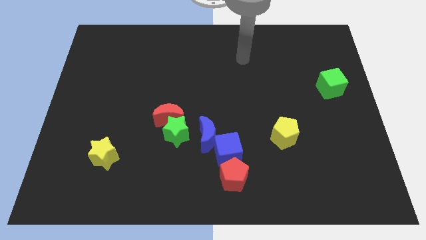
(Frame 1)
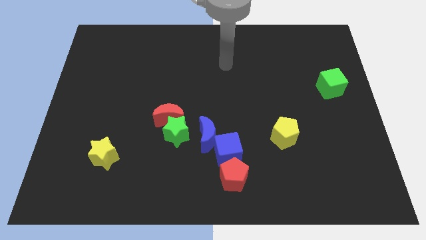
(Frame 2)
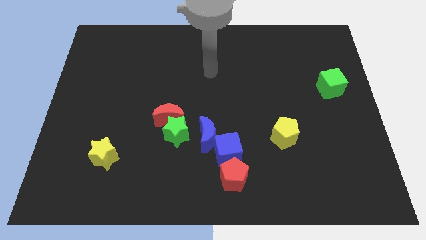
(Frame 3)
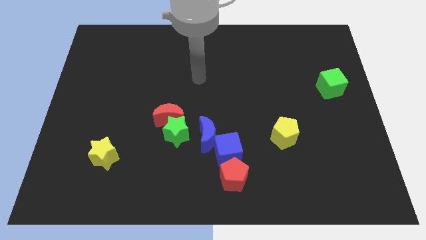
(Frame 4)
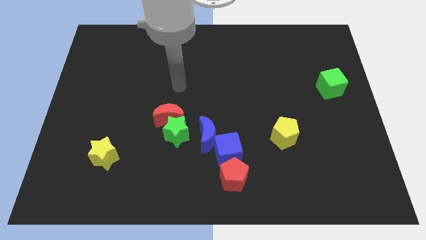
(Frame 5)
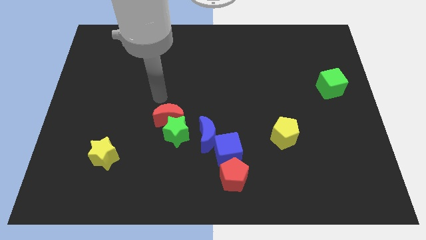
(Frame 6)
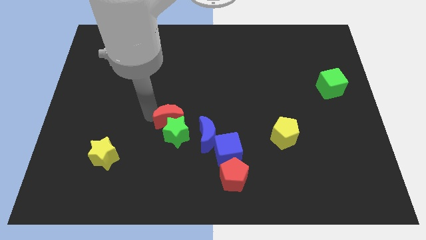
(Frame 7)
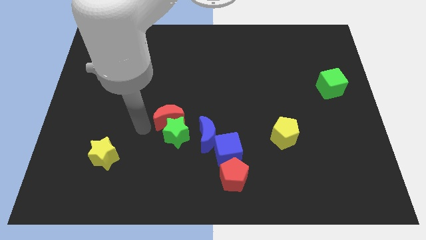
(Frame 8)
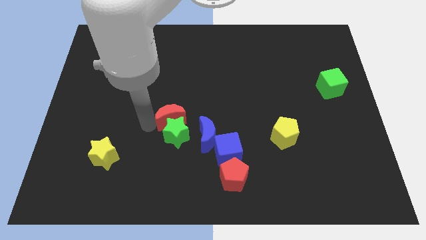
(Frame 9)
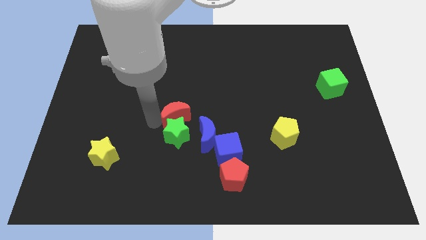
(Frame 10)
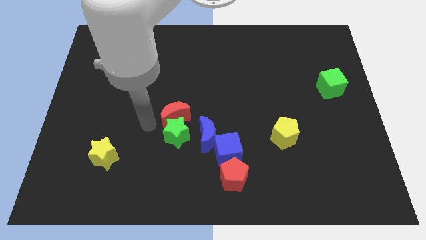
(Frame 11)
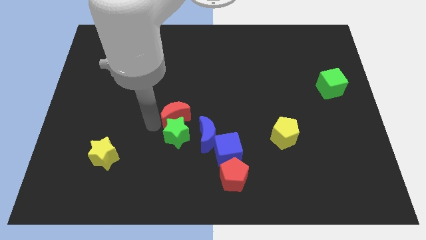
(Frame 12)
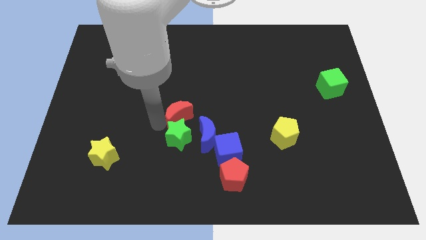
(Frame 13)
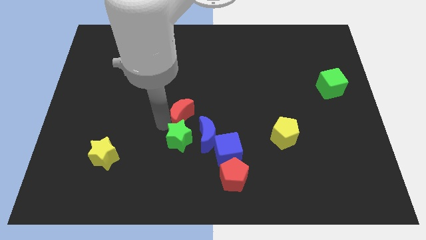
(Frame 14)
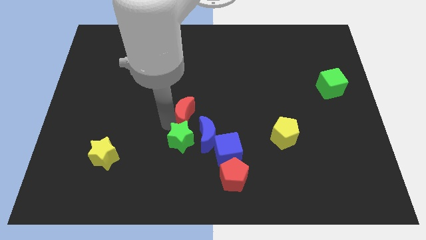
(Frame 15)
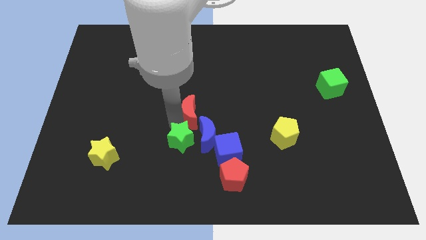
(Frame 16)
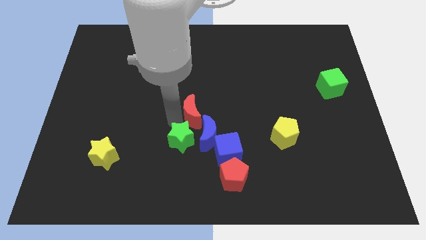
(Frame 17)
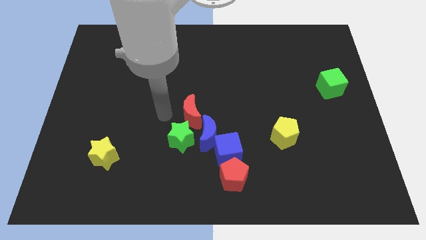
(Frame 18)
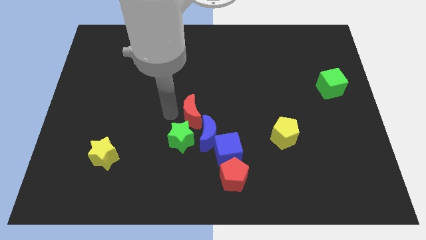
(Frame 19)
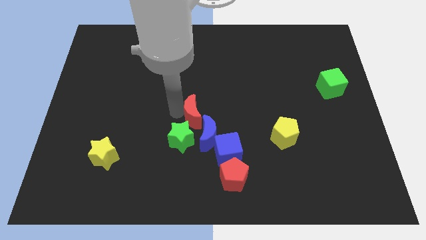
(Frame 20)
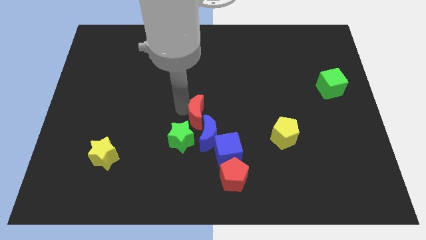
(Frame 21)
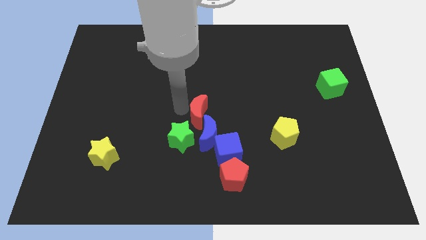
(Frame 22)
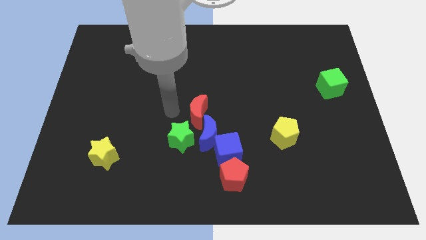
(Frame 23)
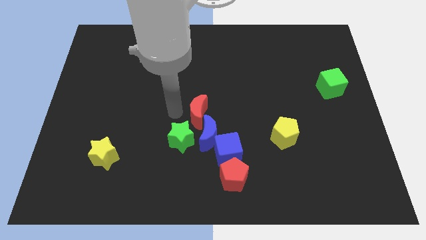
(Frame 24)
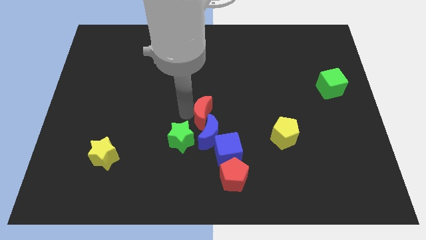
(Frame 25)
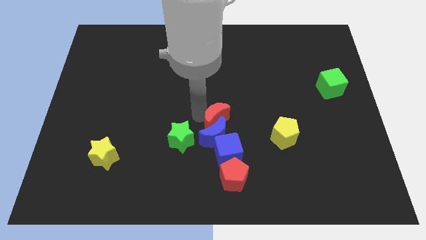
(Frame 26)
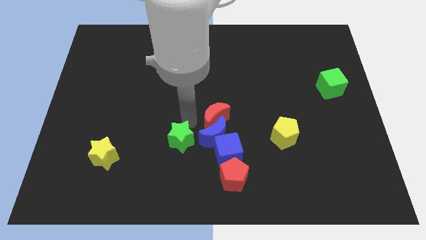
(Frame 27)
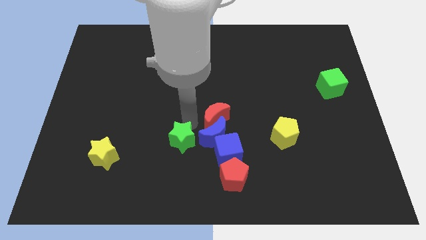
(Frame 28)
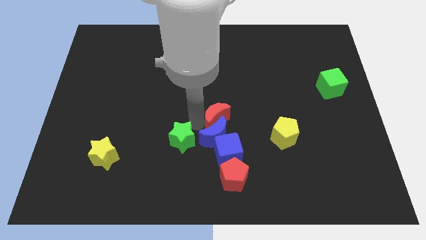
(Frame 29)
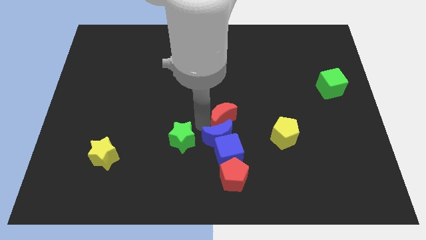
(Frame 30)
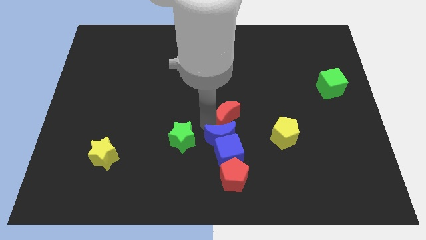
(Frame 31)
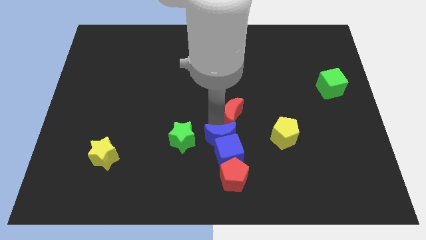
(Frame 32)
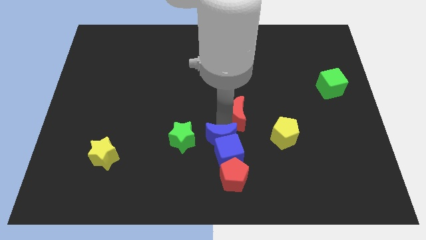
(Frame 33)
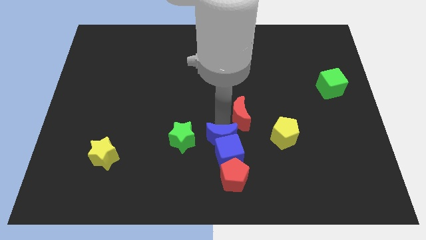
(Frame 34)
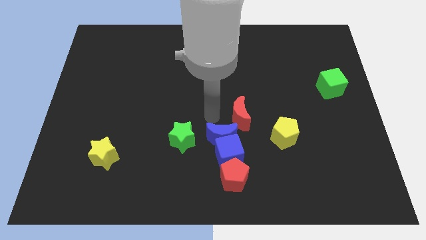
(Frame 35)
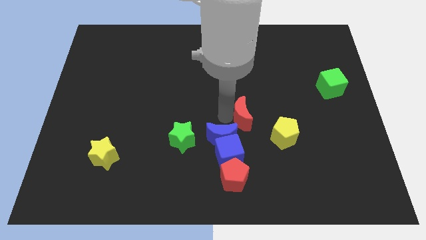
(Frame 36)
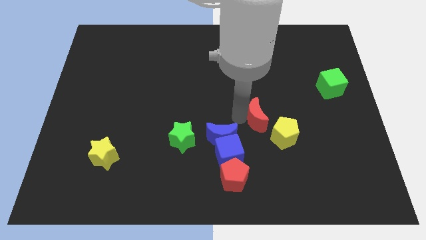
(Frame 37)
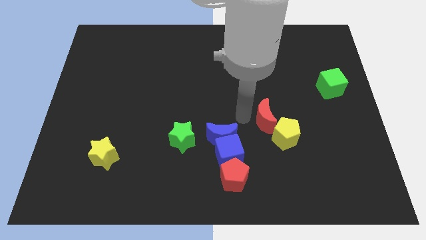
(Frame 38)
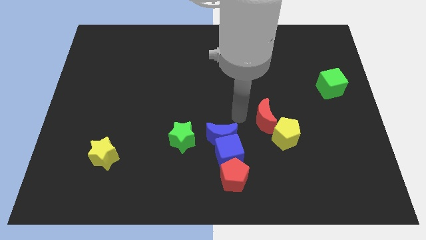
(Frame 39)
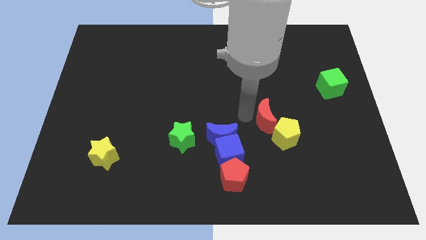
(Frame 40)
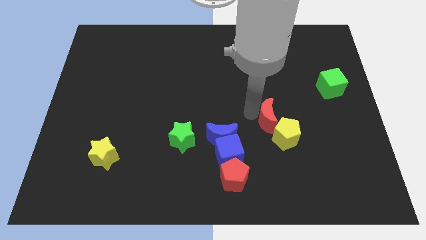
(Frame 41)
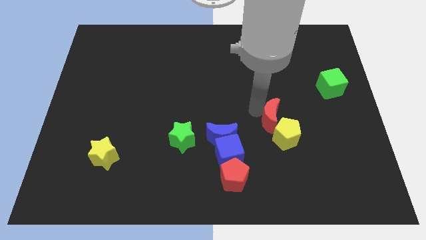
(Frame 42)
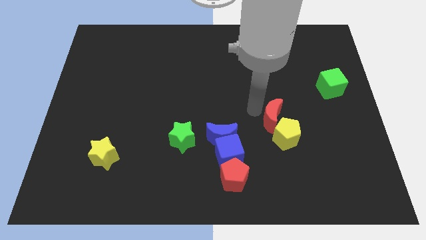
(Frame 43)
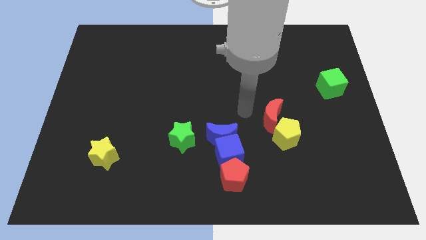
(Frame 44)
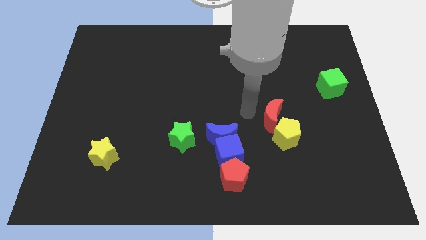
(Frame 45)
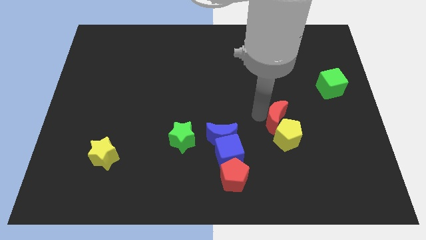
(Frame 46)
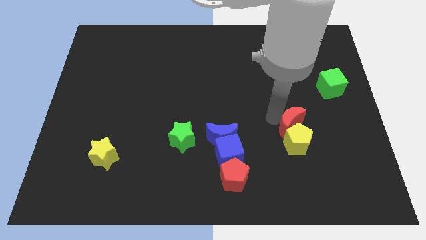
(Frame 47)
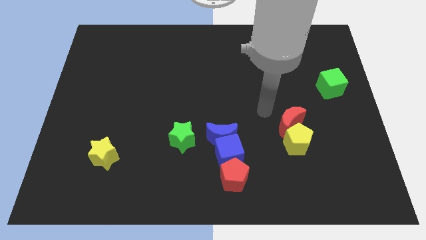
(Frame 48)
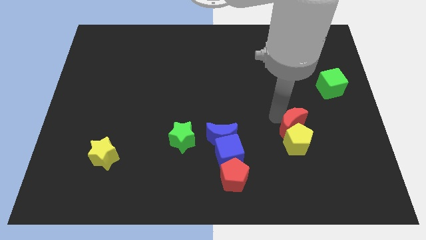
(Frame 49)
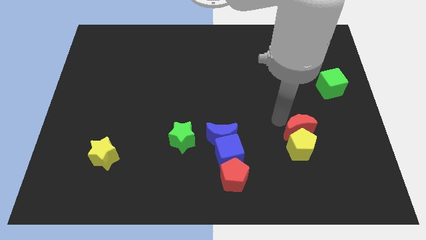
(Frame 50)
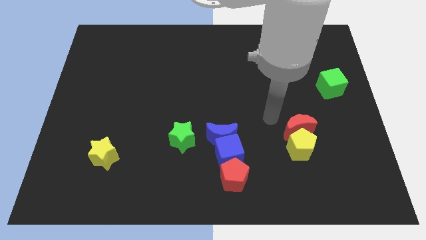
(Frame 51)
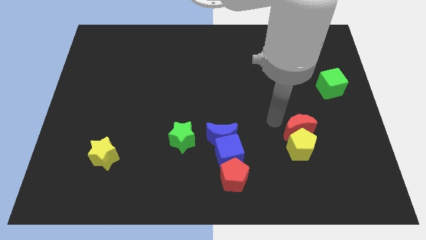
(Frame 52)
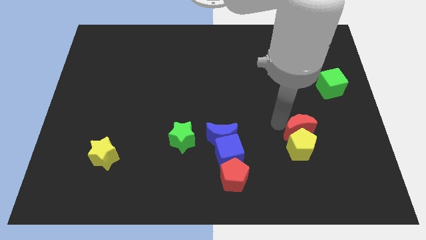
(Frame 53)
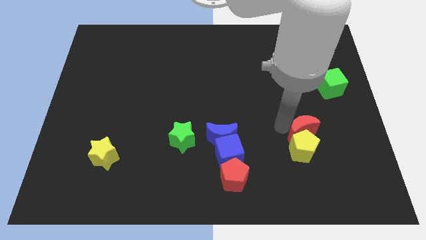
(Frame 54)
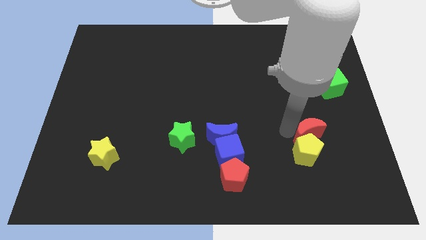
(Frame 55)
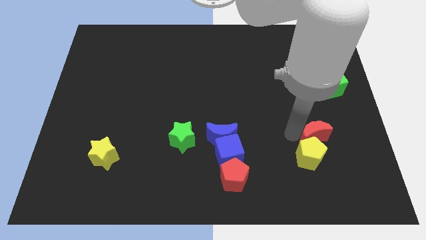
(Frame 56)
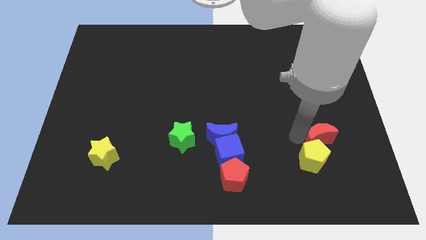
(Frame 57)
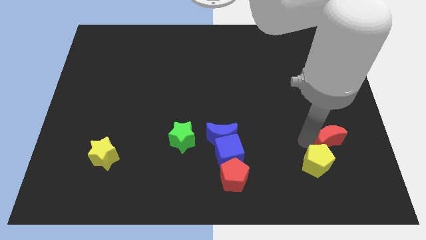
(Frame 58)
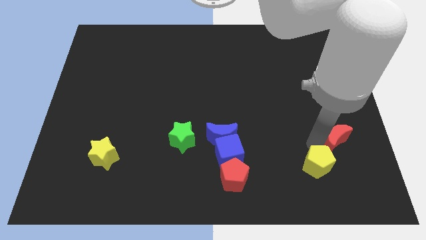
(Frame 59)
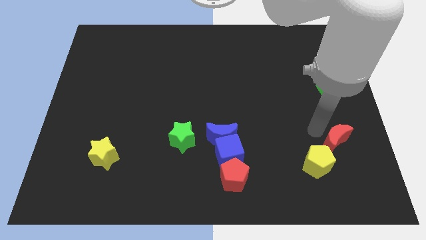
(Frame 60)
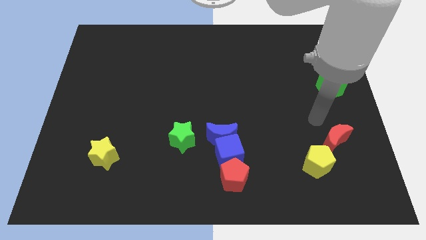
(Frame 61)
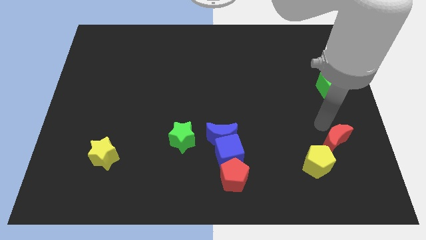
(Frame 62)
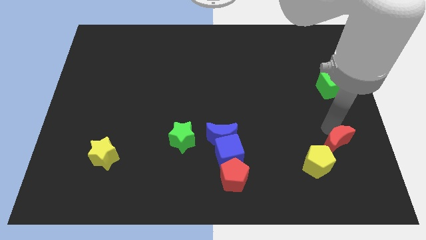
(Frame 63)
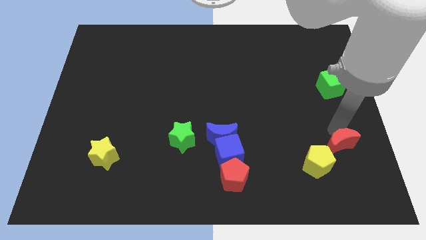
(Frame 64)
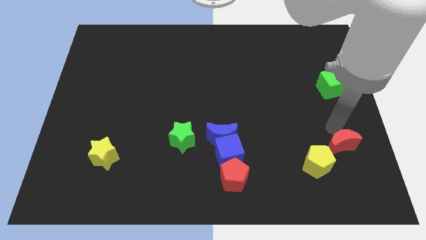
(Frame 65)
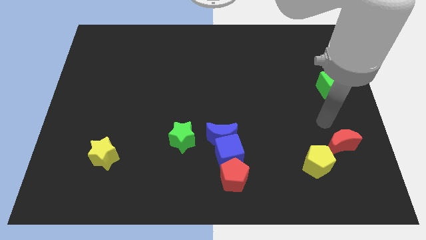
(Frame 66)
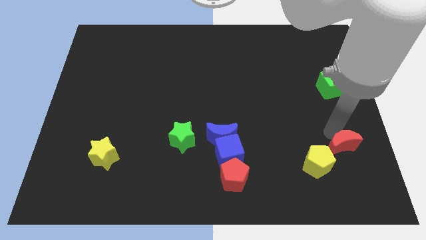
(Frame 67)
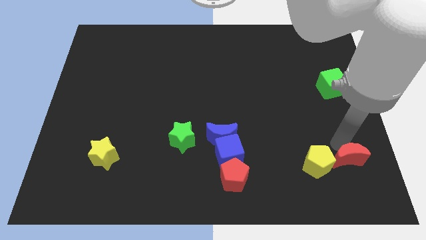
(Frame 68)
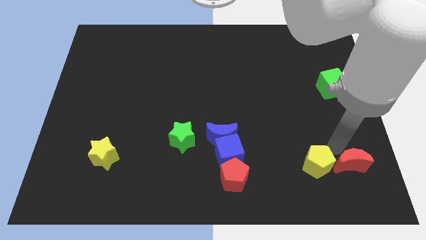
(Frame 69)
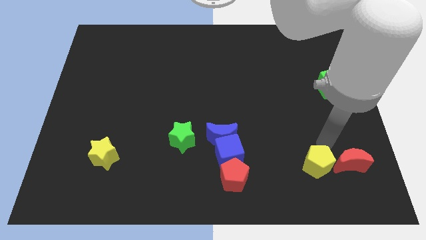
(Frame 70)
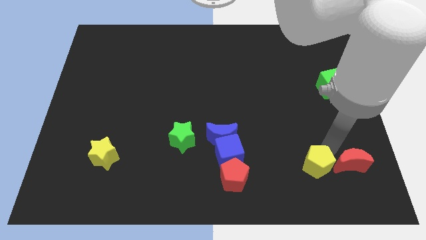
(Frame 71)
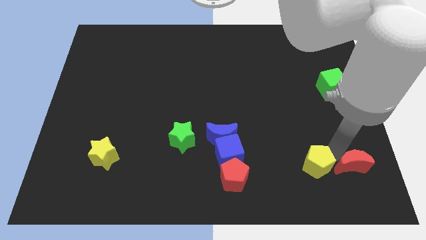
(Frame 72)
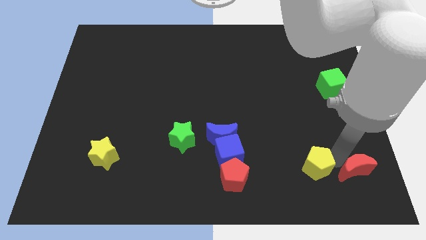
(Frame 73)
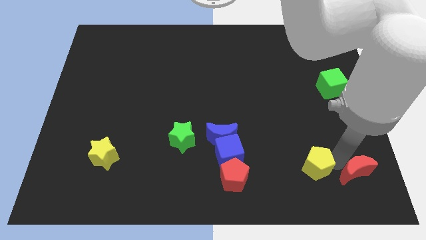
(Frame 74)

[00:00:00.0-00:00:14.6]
put the red moon to the bottom right
